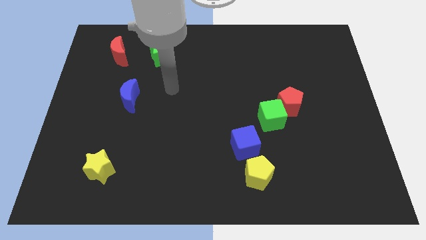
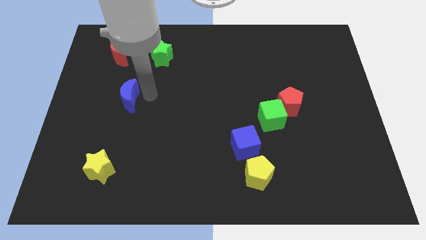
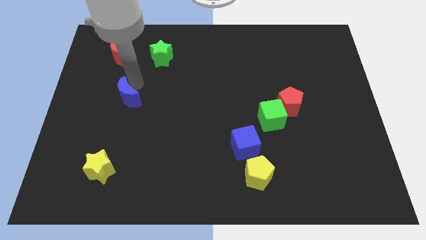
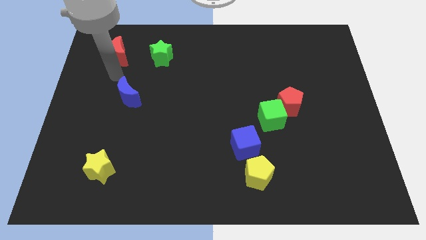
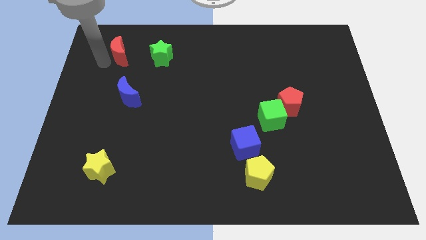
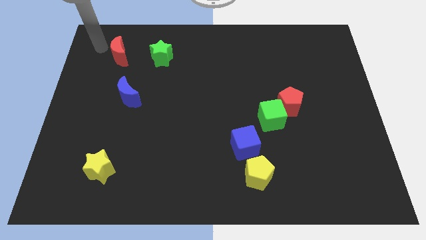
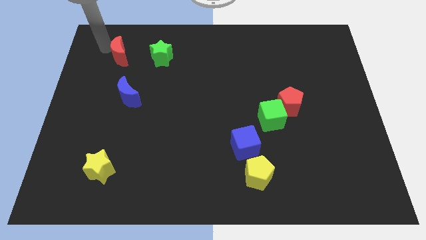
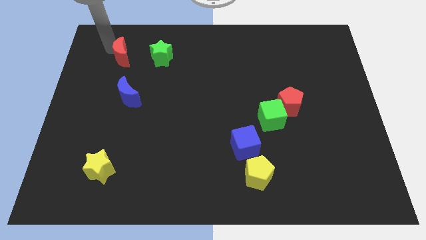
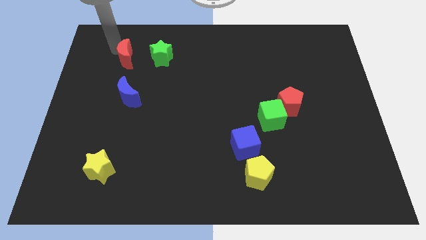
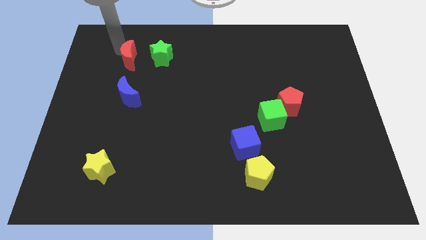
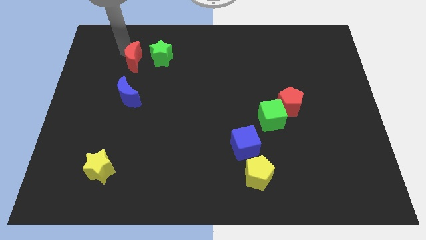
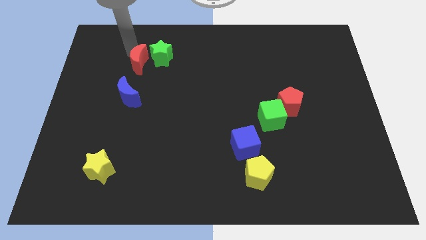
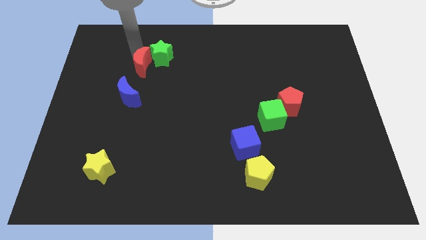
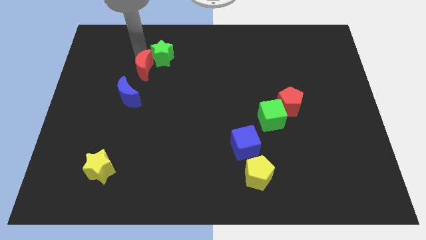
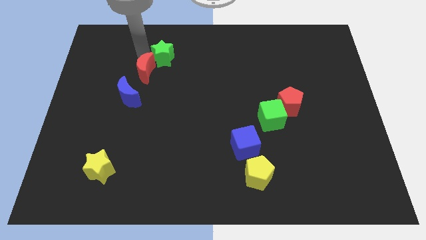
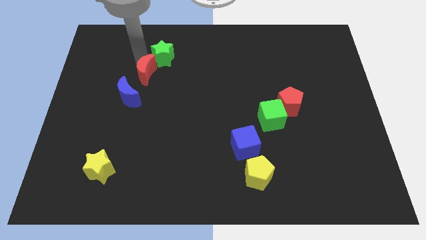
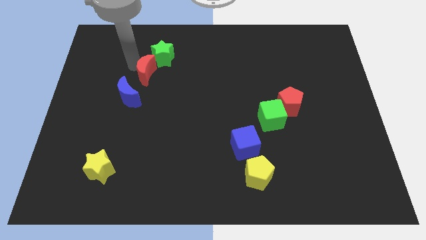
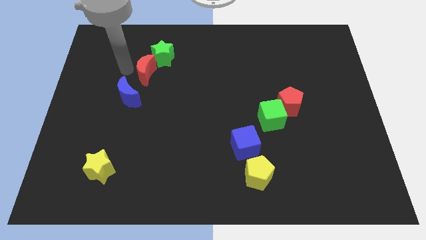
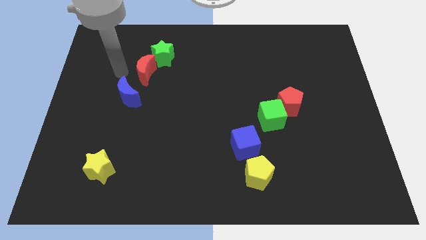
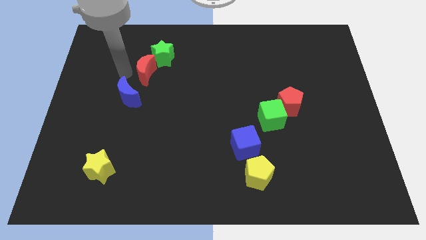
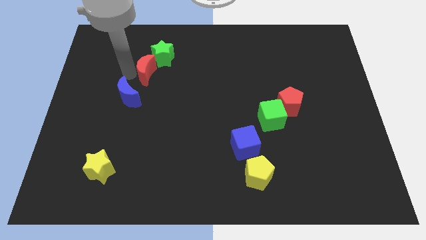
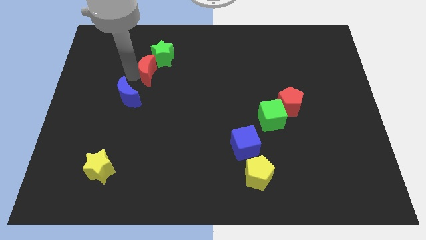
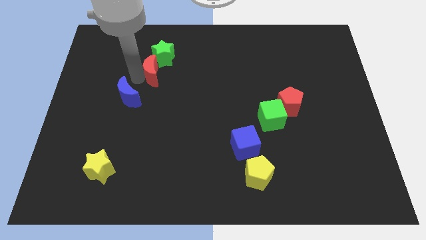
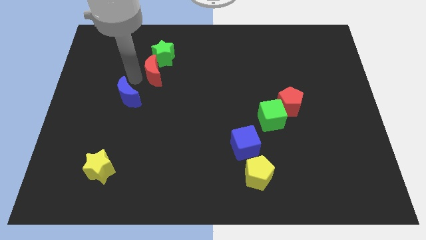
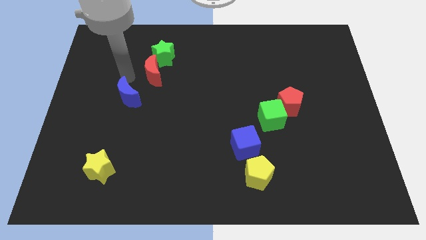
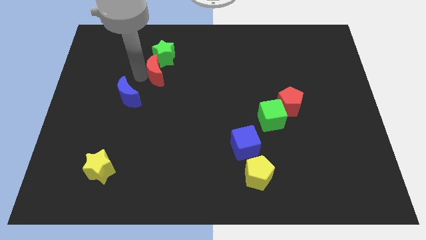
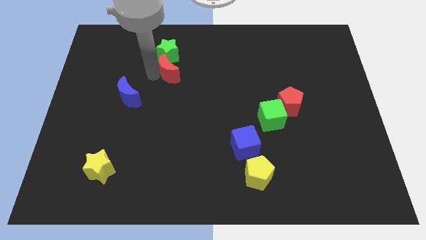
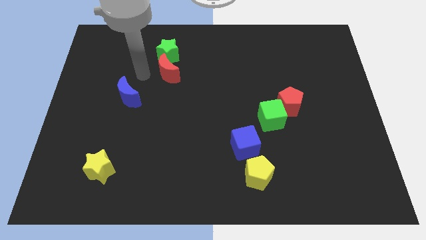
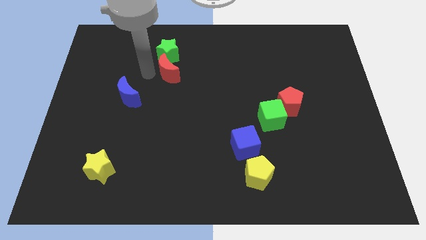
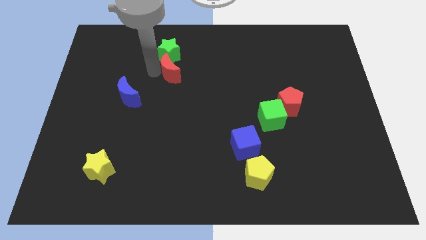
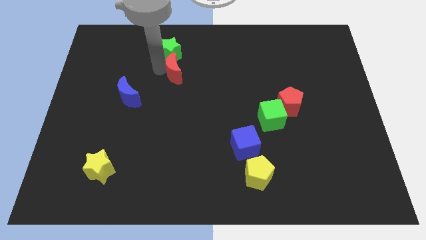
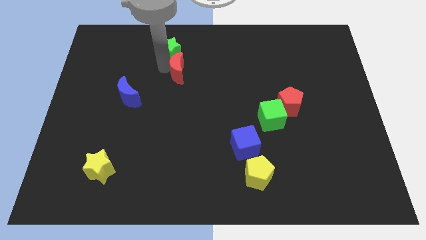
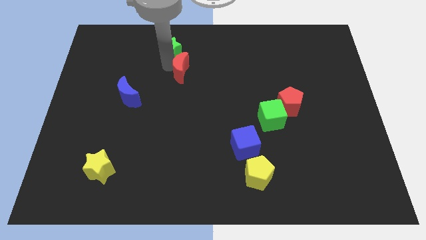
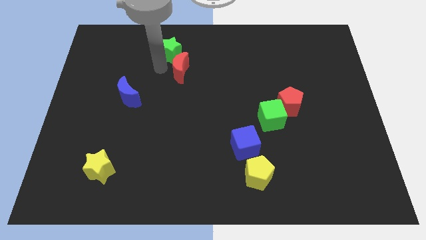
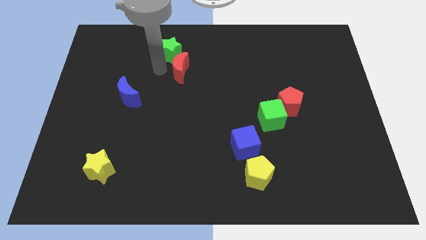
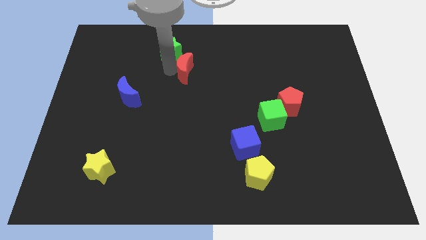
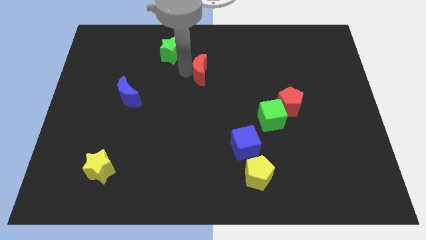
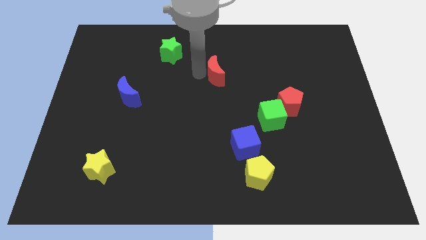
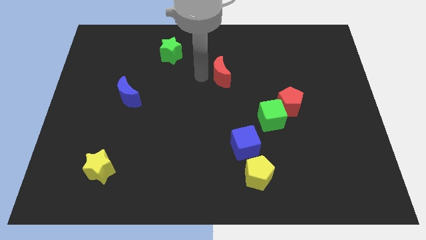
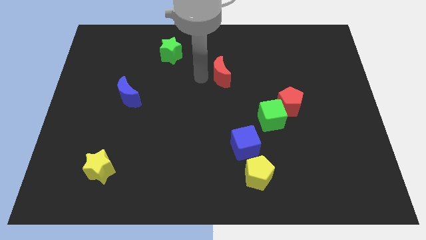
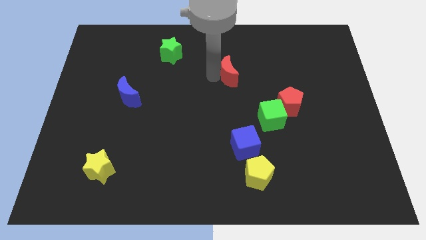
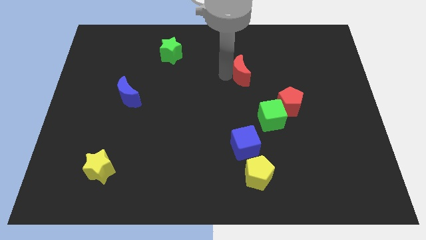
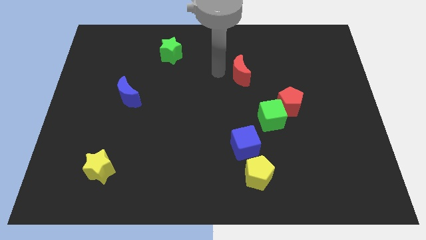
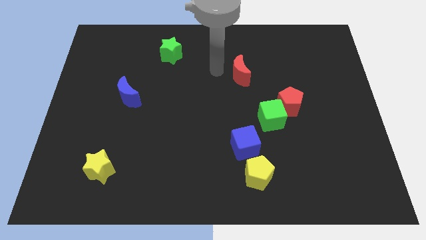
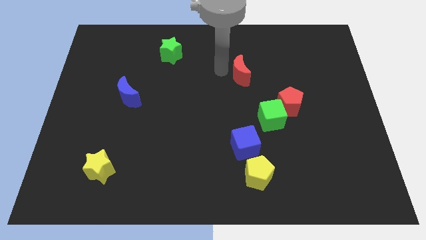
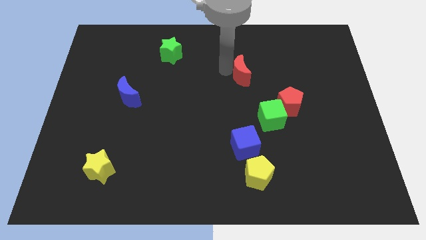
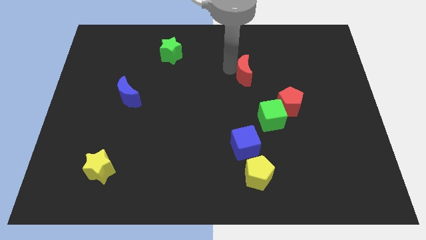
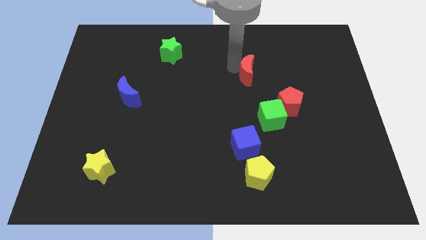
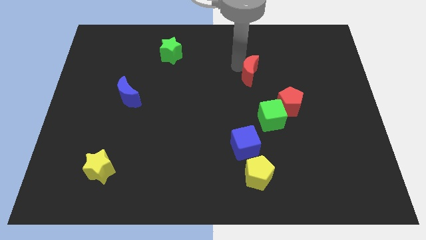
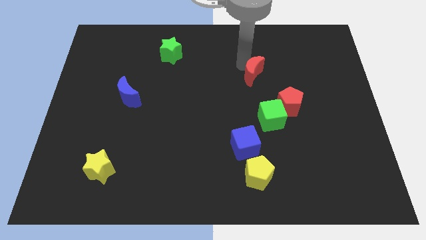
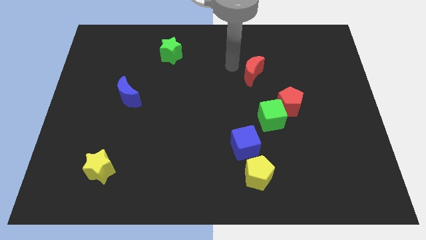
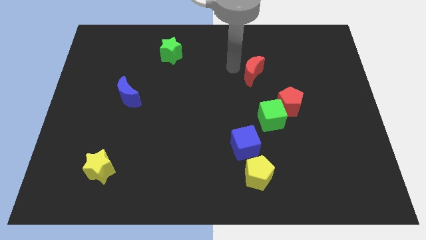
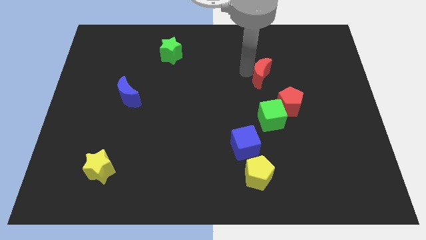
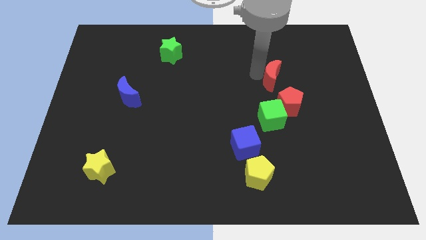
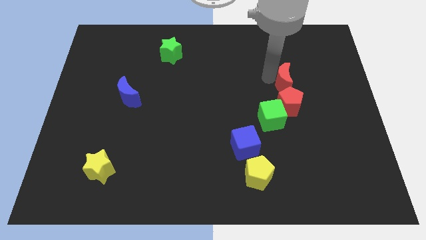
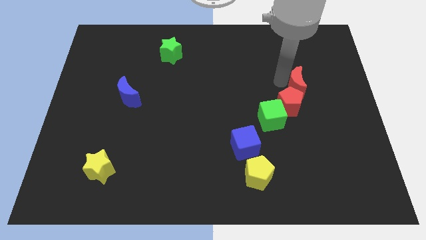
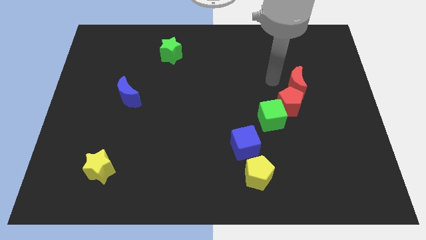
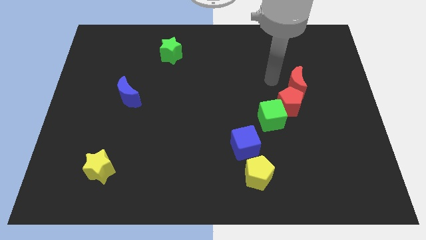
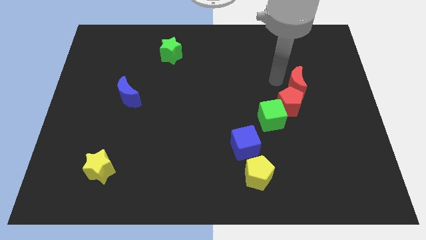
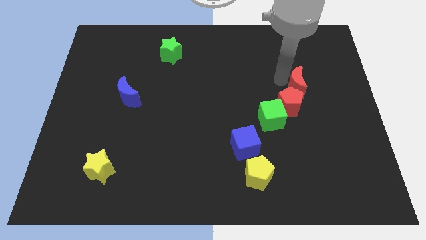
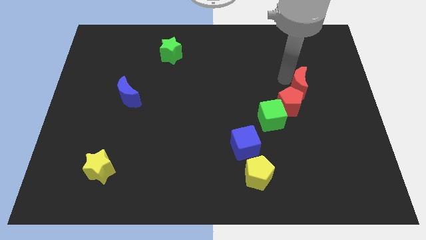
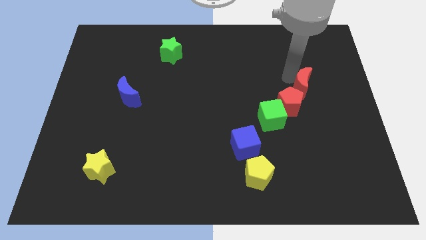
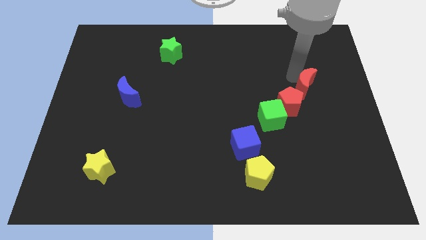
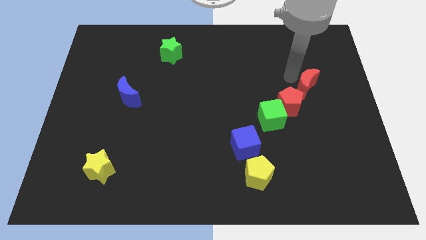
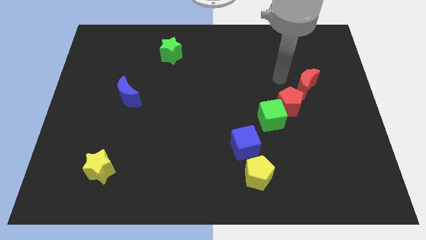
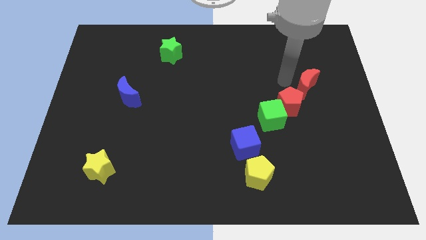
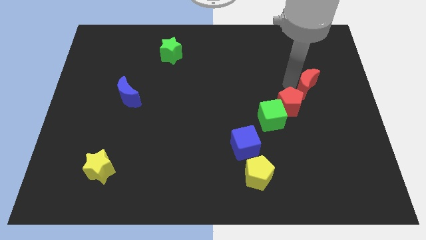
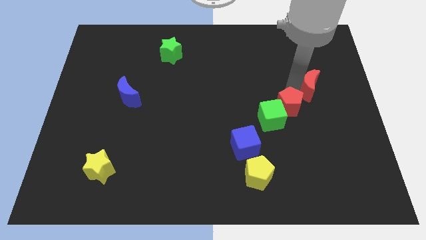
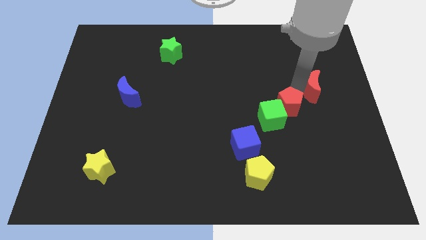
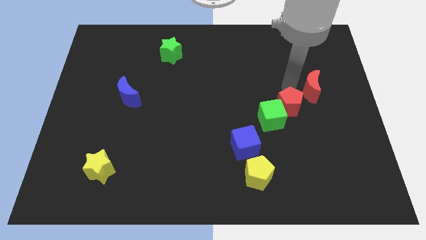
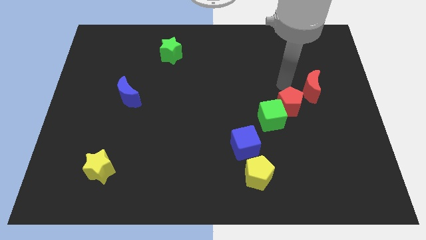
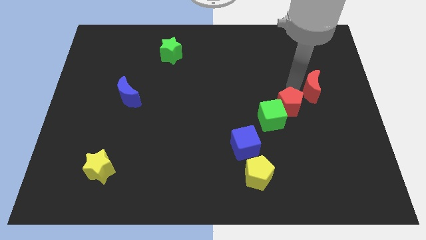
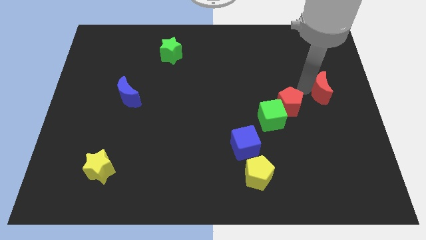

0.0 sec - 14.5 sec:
slide the red moon to the right side of the board

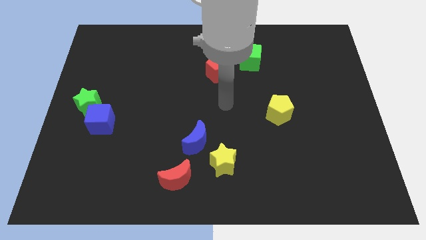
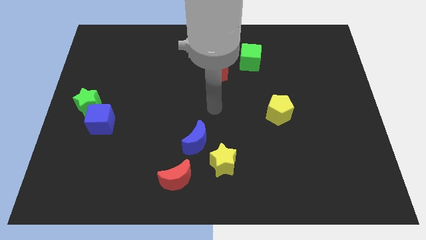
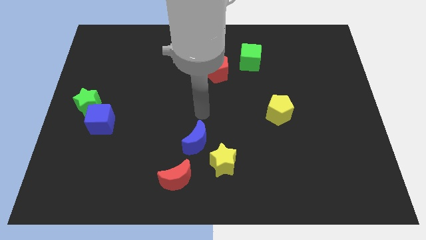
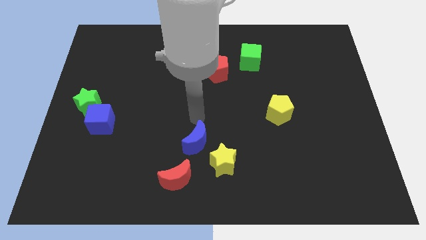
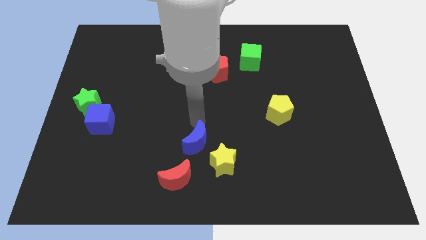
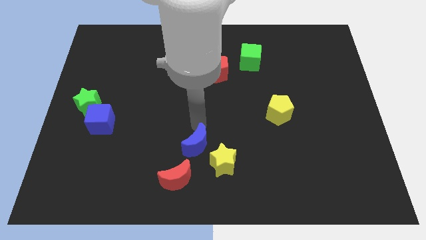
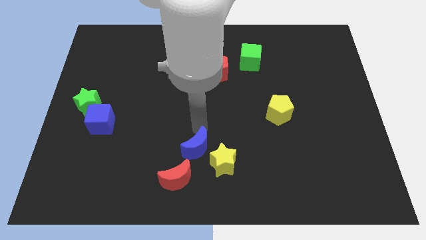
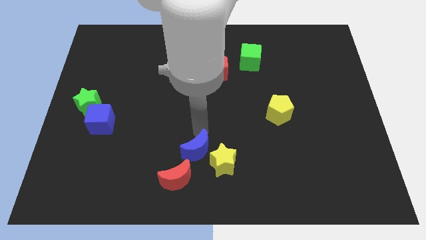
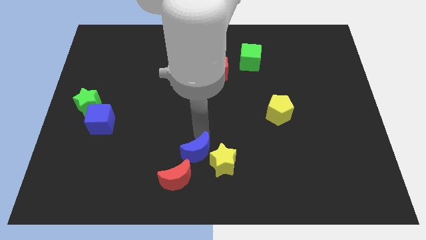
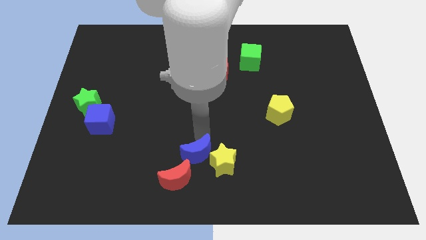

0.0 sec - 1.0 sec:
push the blue moon to the bottom
